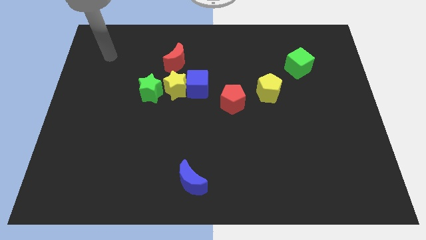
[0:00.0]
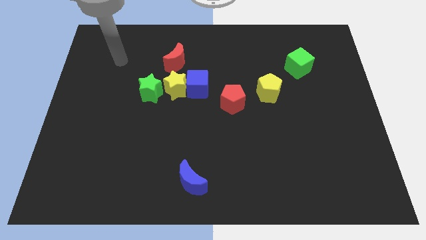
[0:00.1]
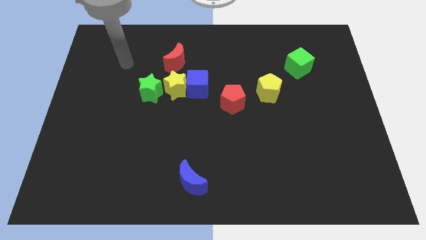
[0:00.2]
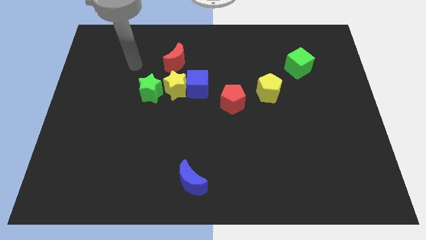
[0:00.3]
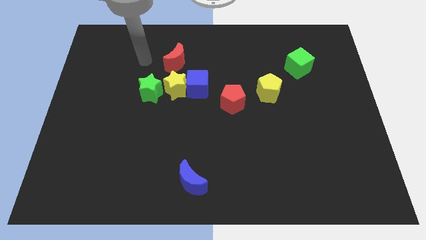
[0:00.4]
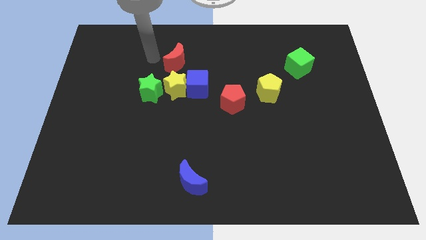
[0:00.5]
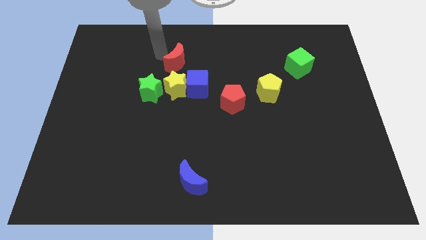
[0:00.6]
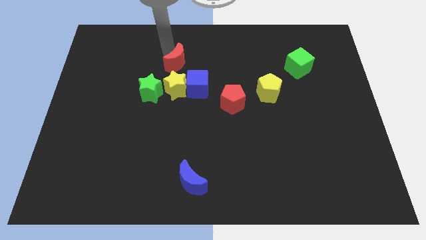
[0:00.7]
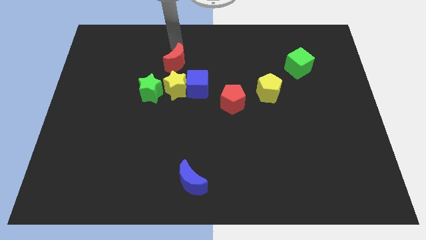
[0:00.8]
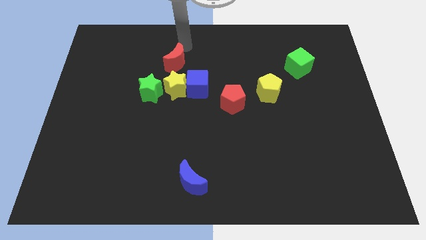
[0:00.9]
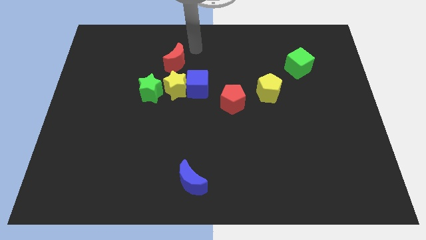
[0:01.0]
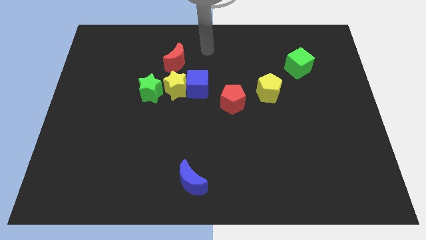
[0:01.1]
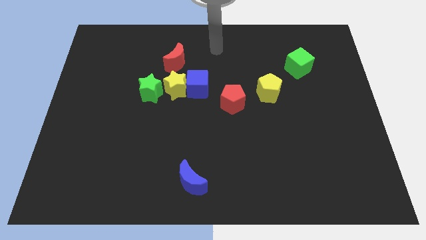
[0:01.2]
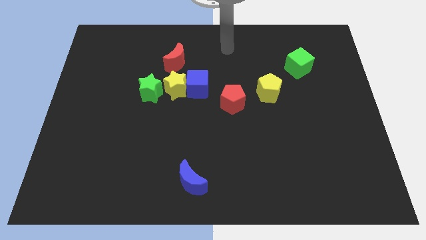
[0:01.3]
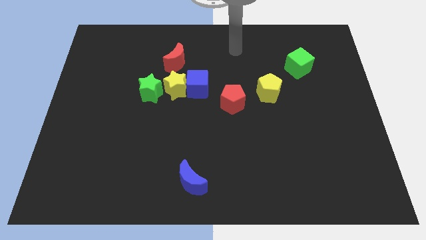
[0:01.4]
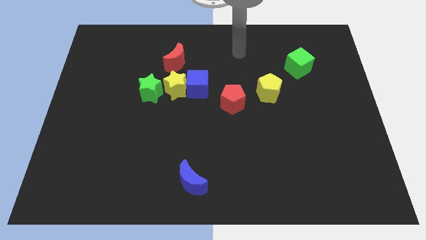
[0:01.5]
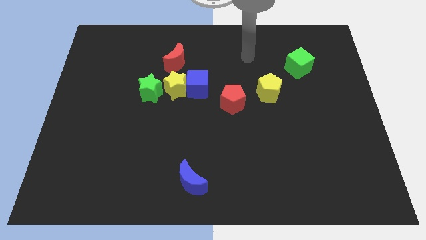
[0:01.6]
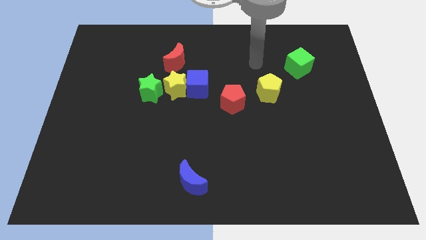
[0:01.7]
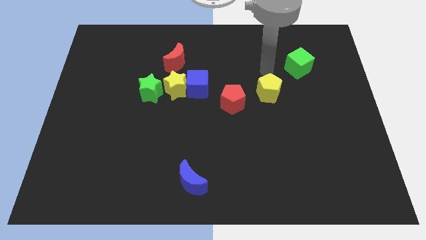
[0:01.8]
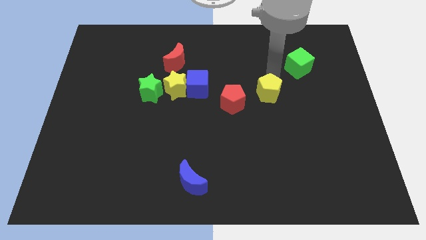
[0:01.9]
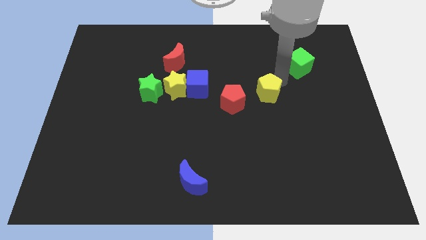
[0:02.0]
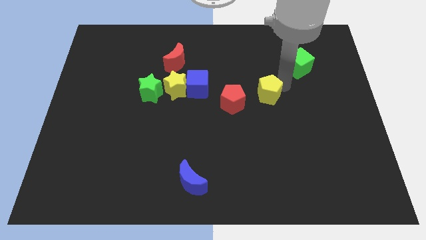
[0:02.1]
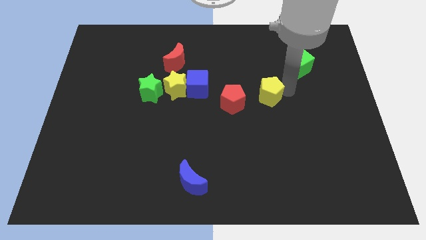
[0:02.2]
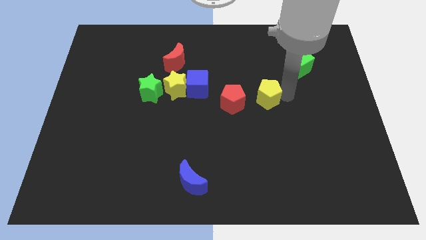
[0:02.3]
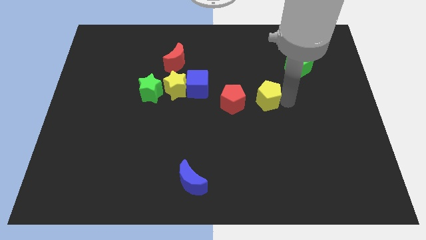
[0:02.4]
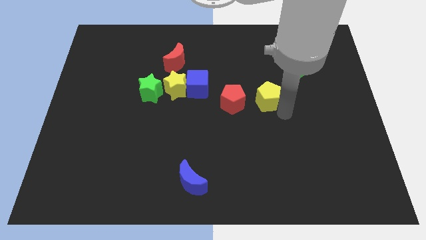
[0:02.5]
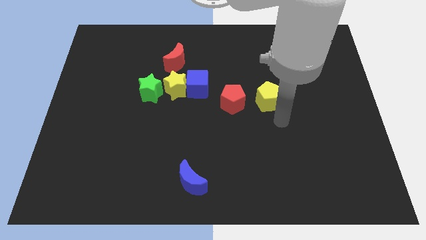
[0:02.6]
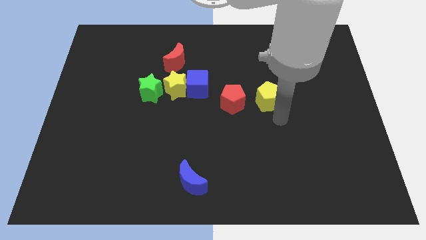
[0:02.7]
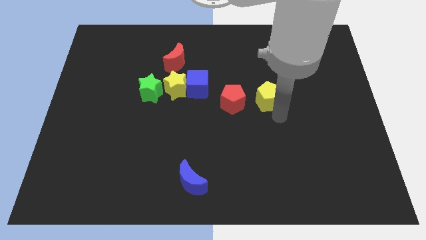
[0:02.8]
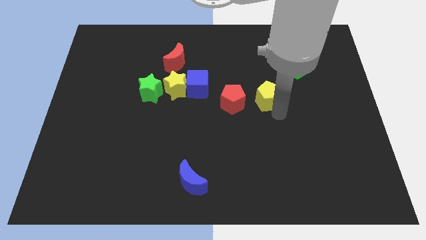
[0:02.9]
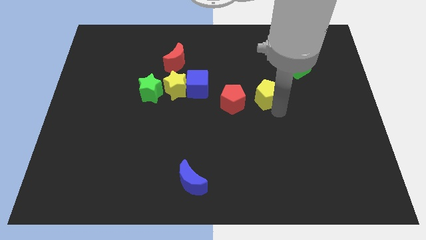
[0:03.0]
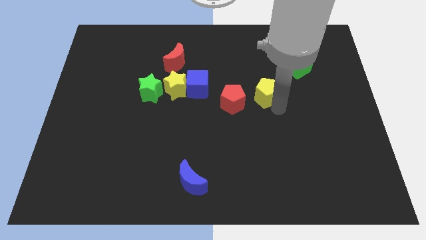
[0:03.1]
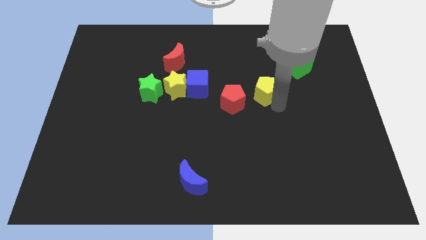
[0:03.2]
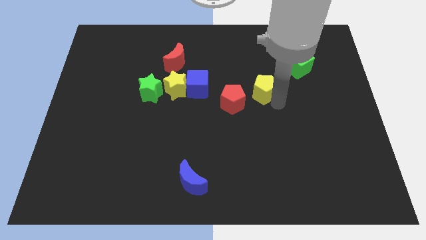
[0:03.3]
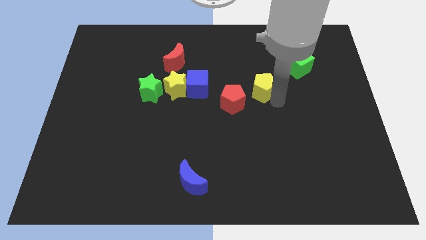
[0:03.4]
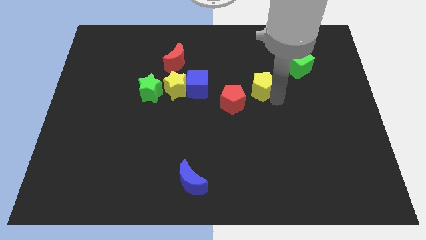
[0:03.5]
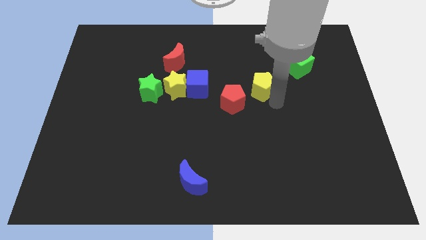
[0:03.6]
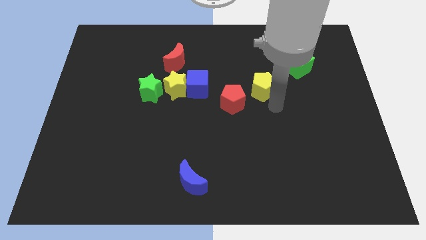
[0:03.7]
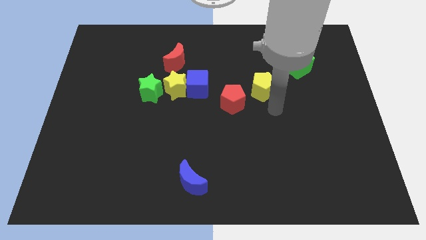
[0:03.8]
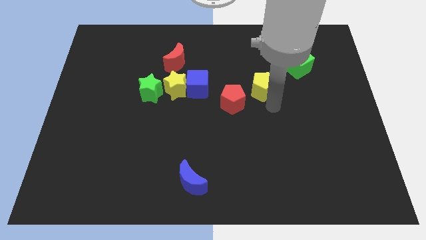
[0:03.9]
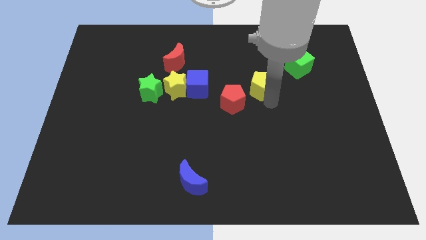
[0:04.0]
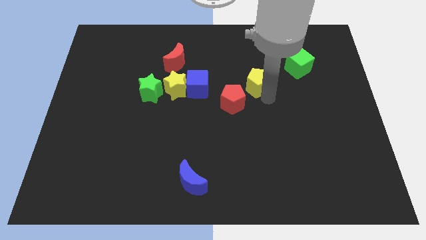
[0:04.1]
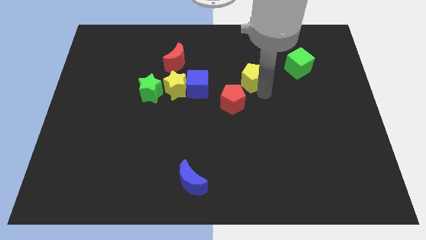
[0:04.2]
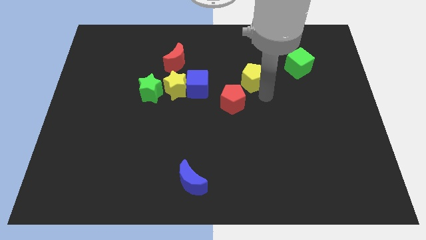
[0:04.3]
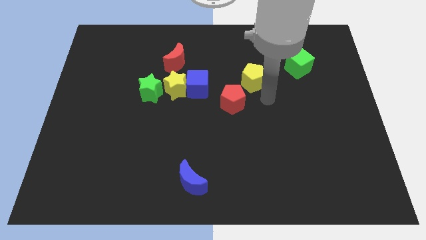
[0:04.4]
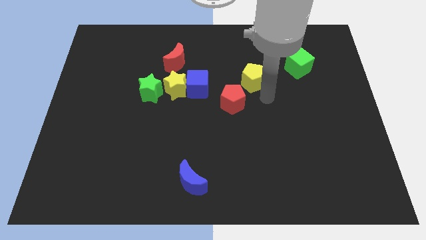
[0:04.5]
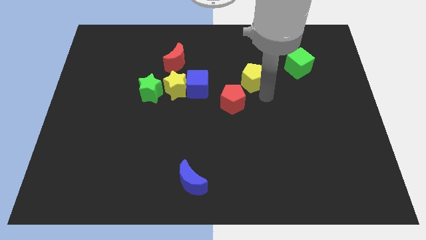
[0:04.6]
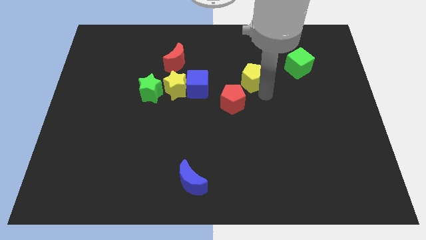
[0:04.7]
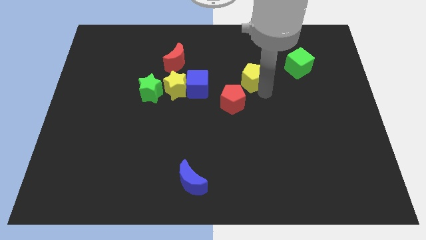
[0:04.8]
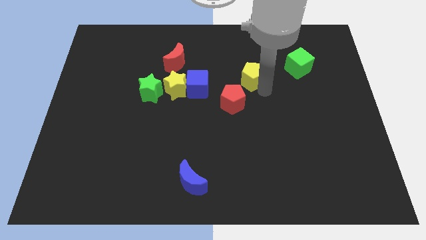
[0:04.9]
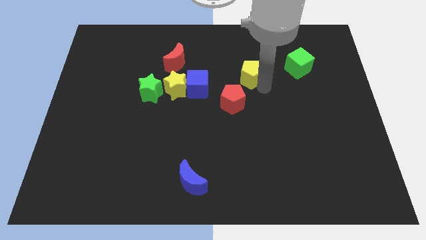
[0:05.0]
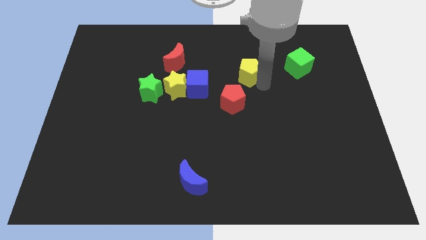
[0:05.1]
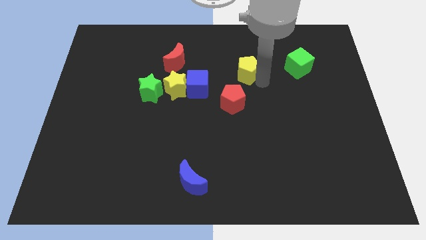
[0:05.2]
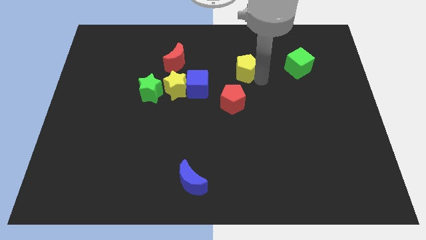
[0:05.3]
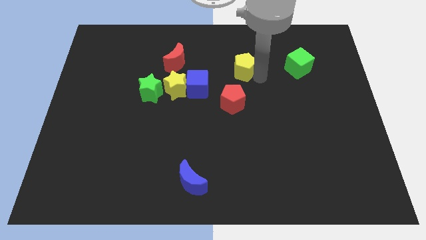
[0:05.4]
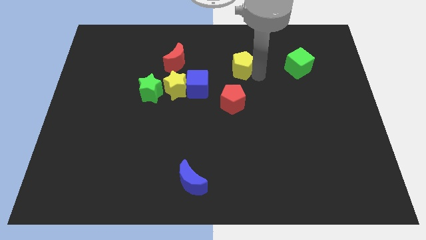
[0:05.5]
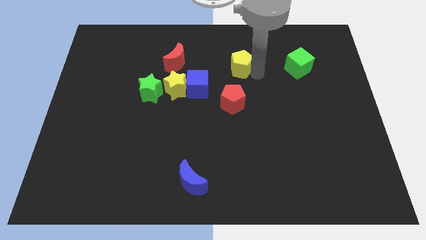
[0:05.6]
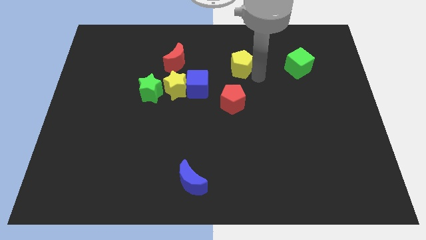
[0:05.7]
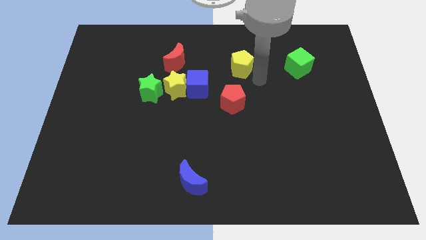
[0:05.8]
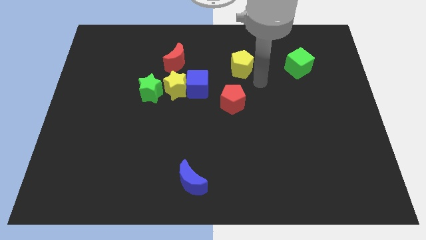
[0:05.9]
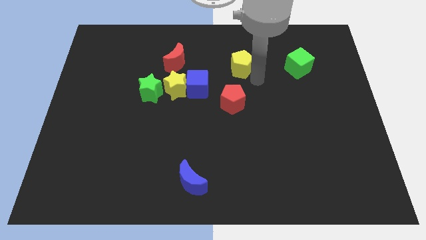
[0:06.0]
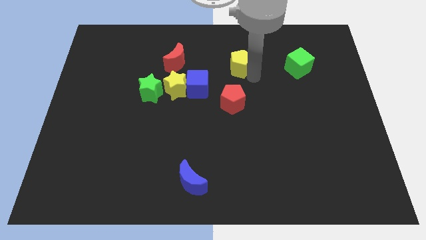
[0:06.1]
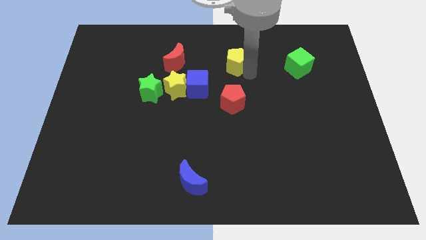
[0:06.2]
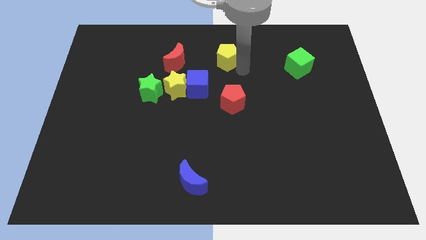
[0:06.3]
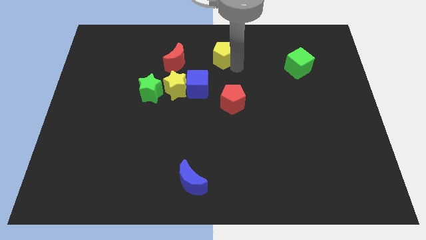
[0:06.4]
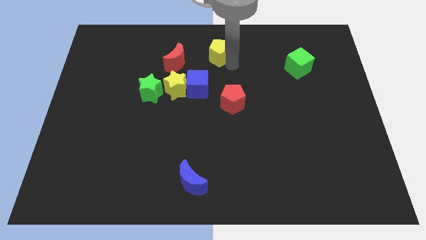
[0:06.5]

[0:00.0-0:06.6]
put the yellow pentagon to the towards your base
